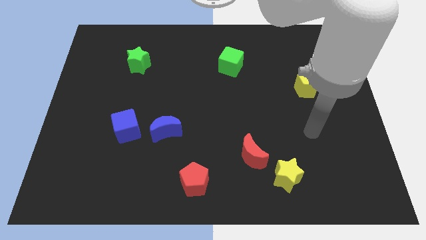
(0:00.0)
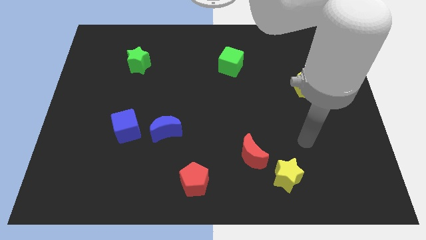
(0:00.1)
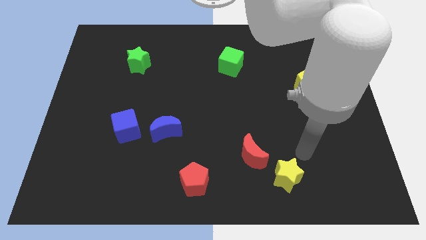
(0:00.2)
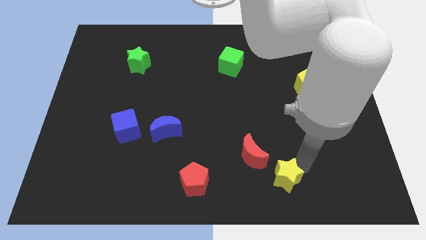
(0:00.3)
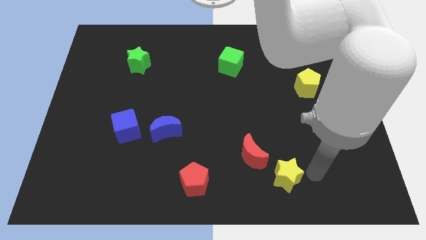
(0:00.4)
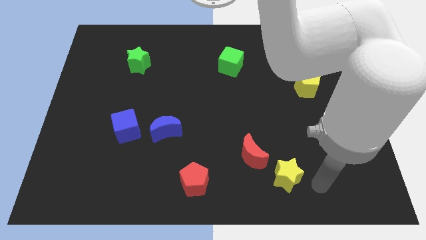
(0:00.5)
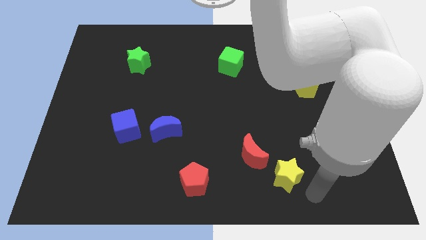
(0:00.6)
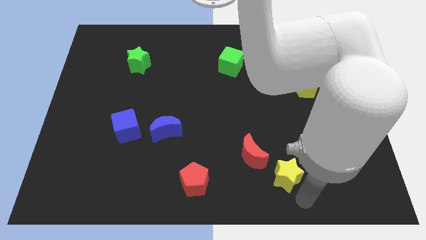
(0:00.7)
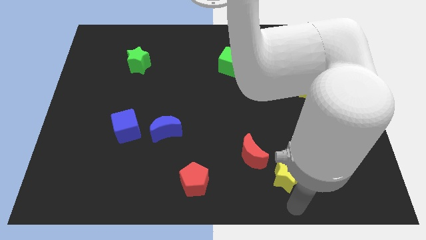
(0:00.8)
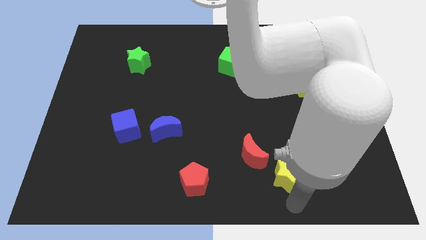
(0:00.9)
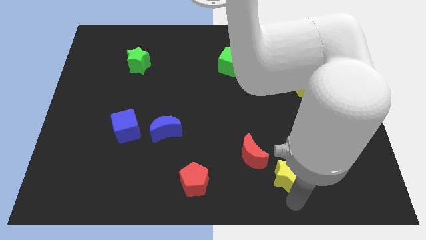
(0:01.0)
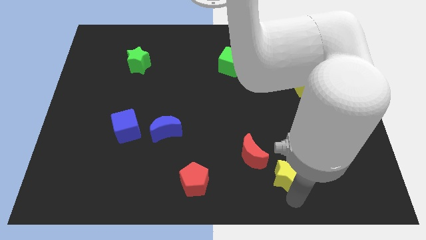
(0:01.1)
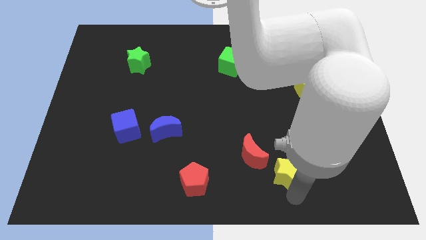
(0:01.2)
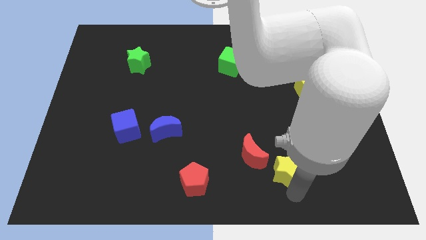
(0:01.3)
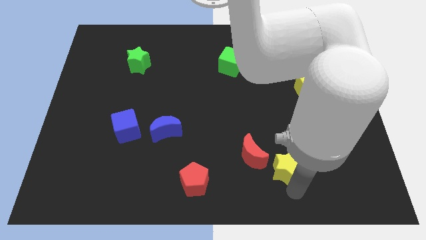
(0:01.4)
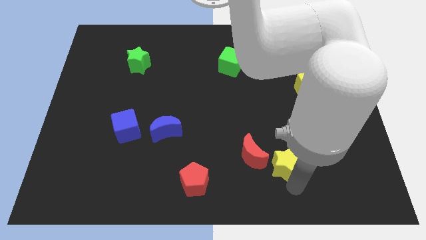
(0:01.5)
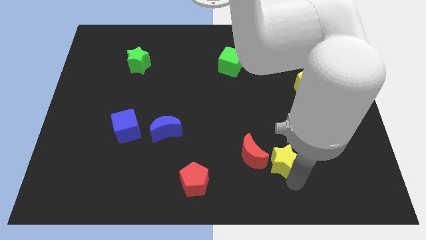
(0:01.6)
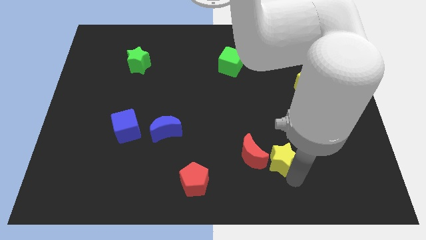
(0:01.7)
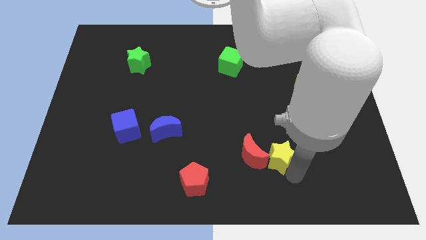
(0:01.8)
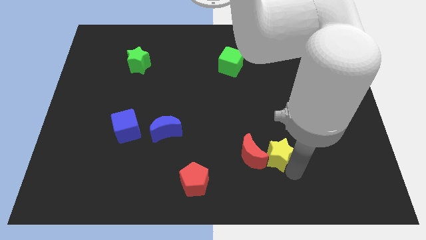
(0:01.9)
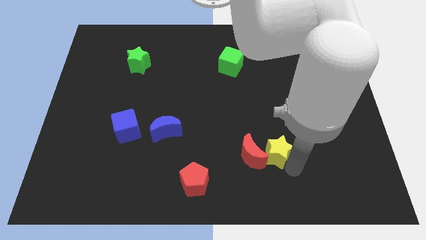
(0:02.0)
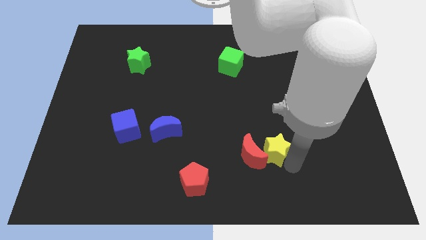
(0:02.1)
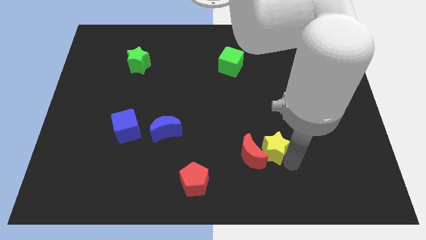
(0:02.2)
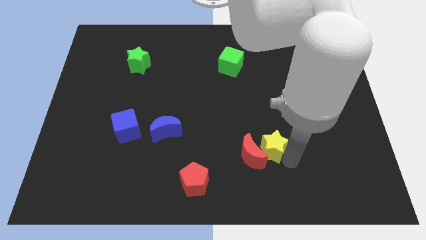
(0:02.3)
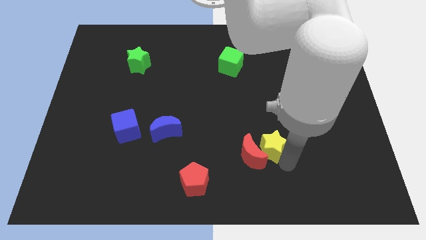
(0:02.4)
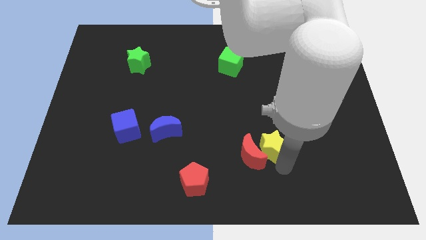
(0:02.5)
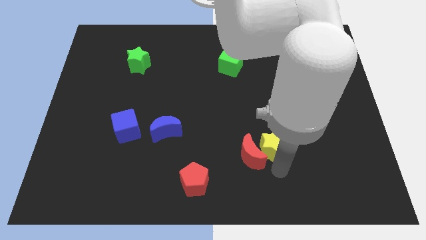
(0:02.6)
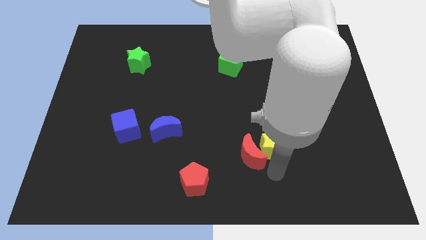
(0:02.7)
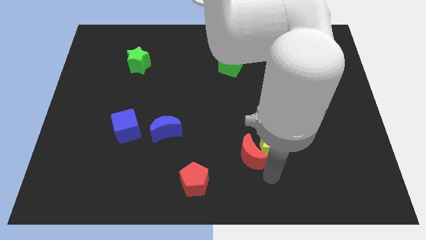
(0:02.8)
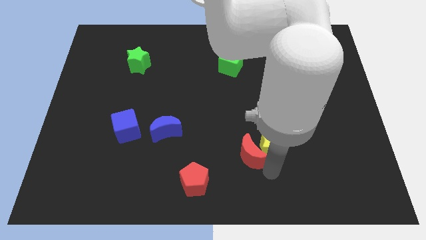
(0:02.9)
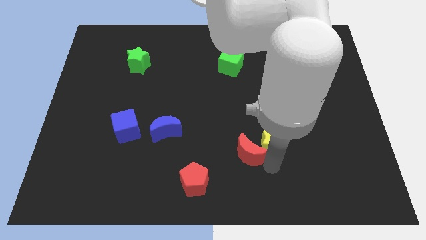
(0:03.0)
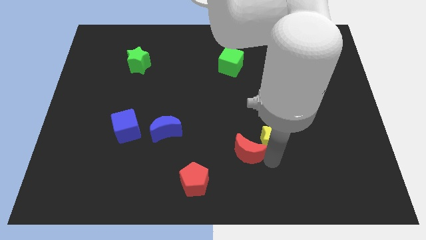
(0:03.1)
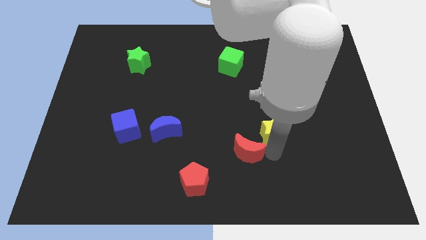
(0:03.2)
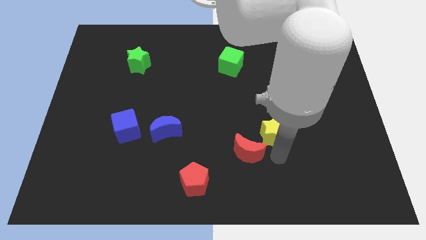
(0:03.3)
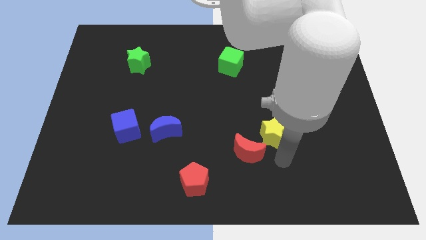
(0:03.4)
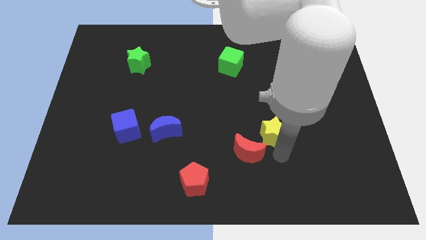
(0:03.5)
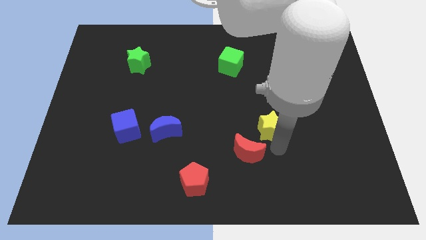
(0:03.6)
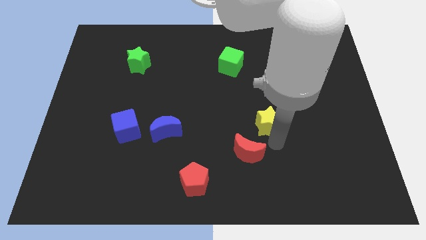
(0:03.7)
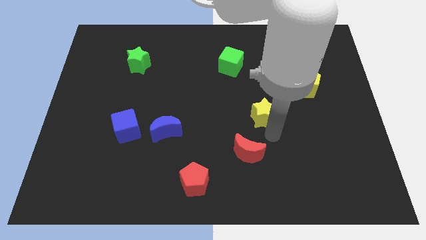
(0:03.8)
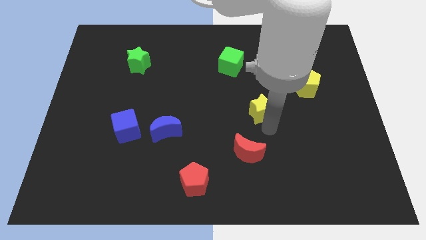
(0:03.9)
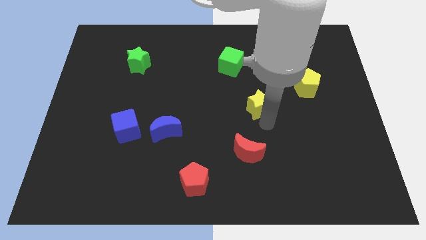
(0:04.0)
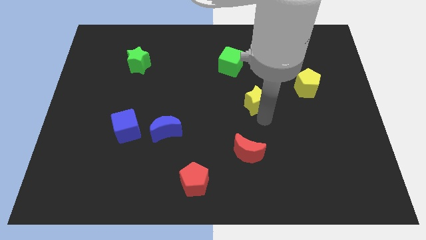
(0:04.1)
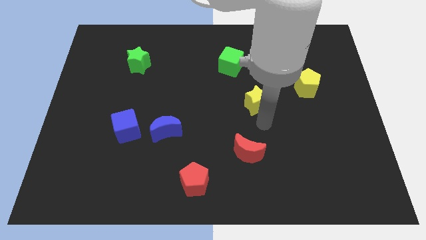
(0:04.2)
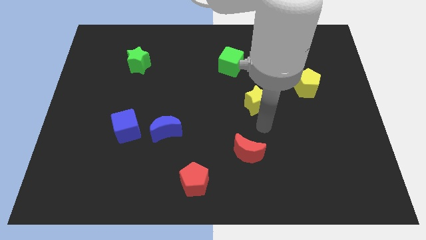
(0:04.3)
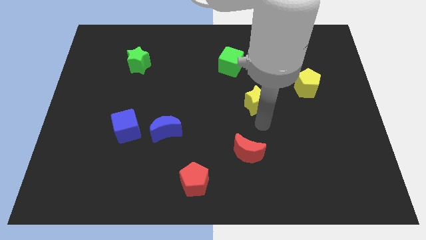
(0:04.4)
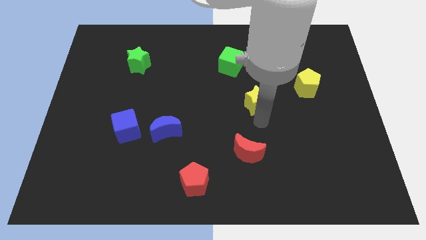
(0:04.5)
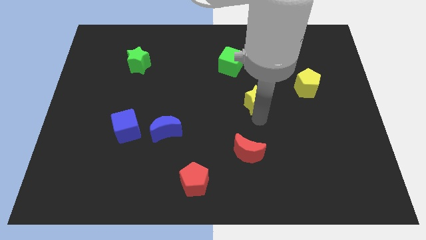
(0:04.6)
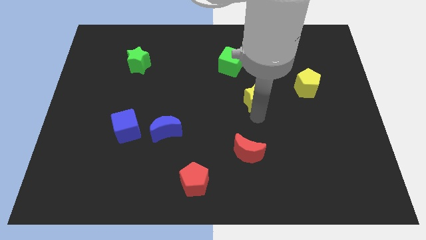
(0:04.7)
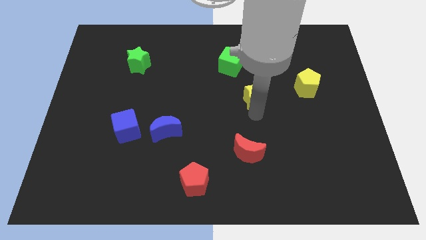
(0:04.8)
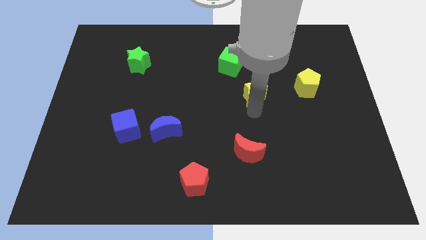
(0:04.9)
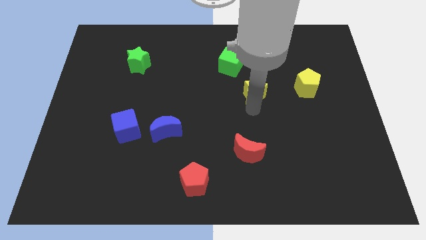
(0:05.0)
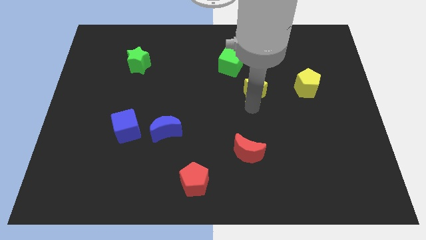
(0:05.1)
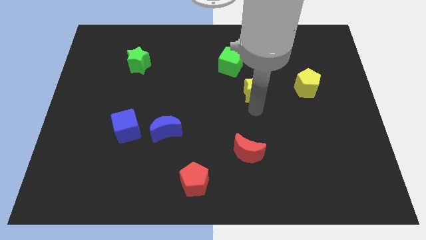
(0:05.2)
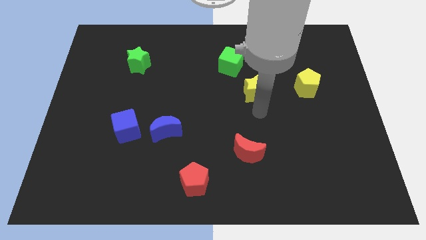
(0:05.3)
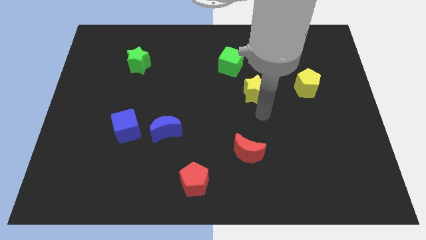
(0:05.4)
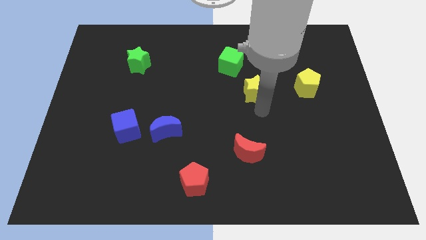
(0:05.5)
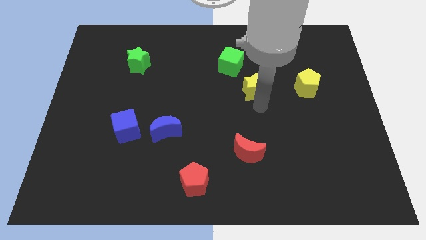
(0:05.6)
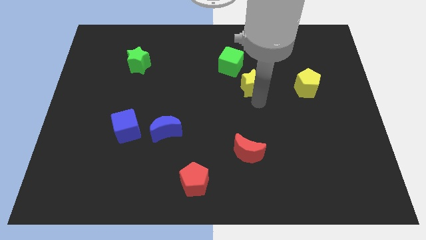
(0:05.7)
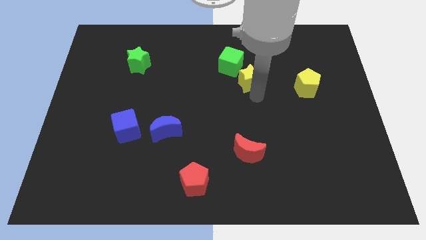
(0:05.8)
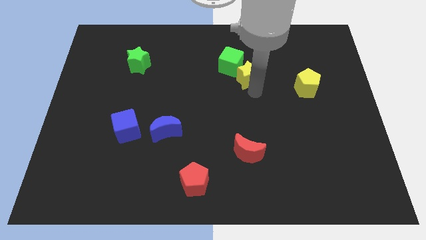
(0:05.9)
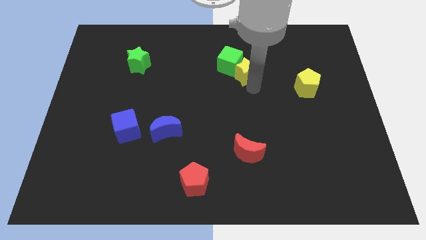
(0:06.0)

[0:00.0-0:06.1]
move the yellow star close to the green cube
